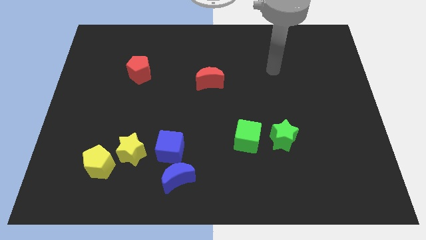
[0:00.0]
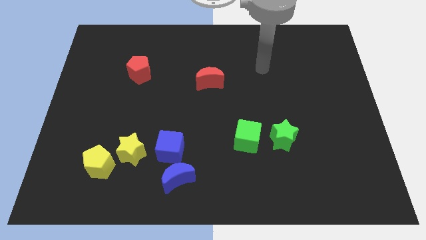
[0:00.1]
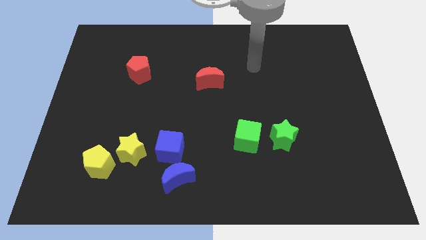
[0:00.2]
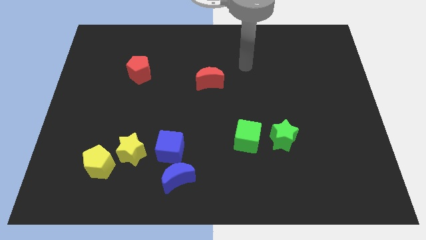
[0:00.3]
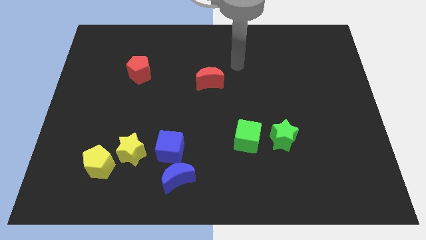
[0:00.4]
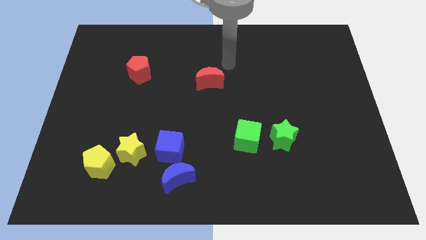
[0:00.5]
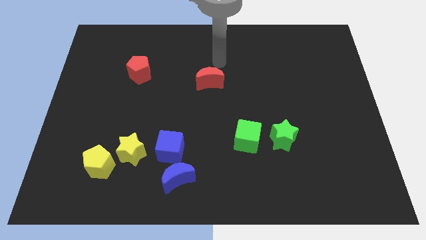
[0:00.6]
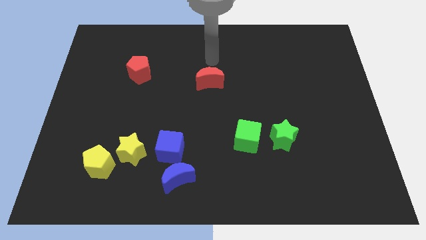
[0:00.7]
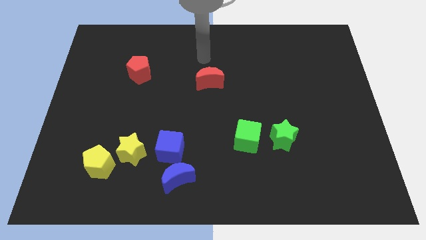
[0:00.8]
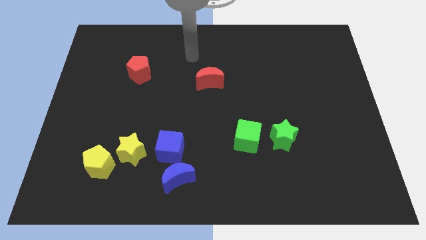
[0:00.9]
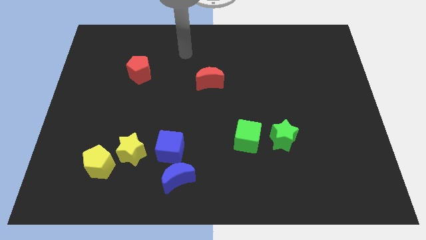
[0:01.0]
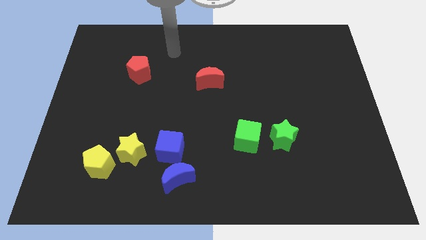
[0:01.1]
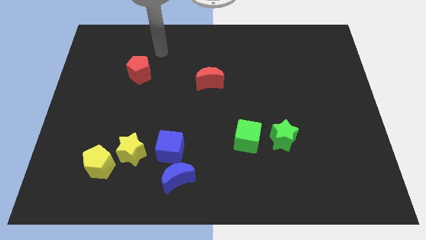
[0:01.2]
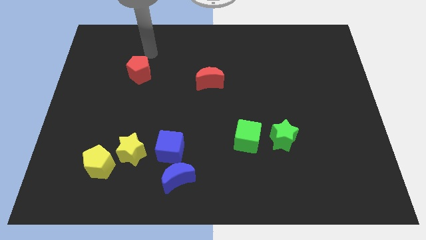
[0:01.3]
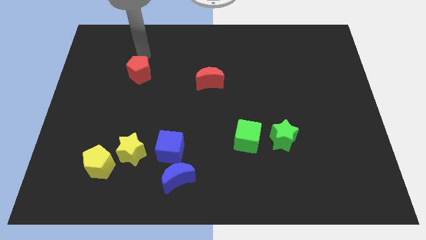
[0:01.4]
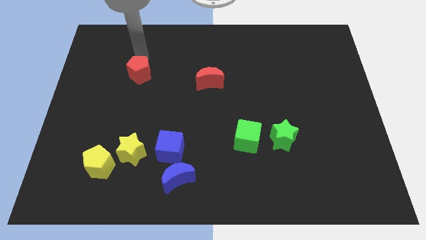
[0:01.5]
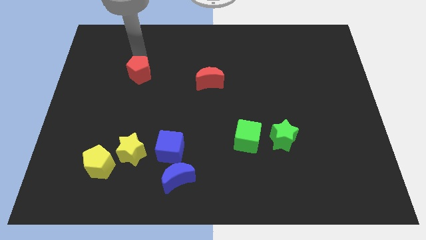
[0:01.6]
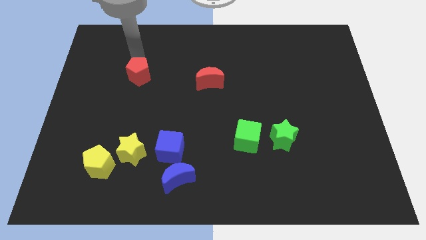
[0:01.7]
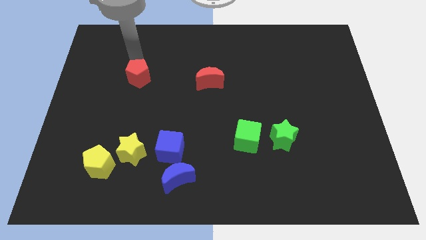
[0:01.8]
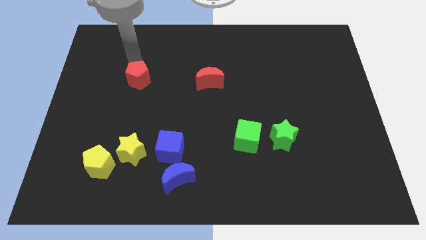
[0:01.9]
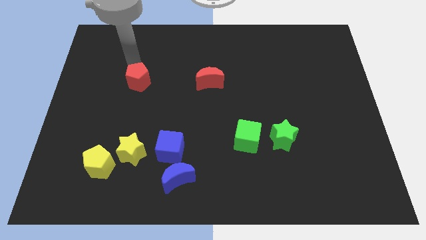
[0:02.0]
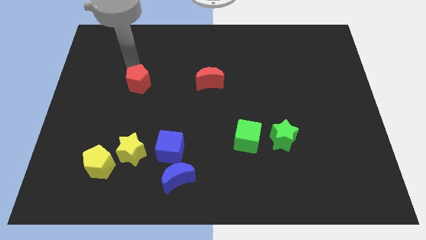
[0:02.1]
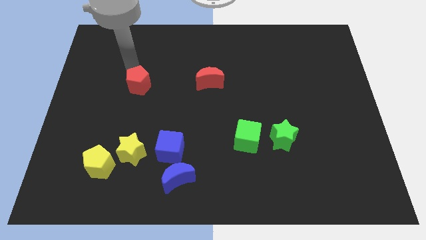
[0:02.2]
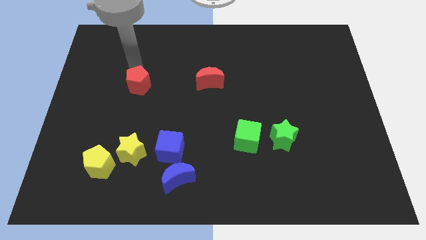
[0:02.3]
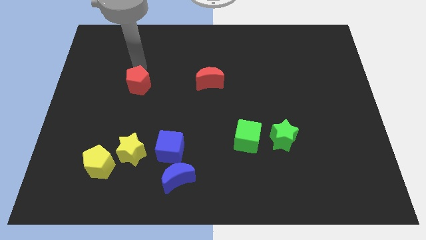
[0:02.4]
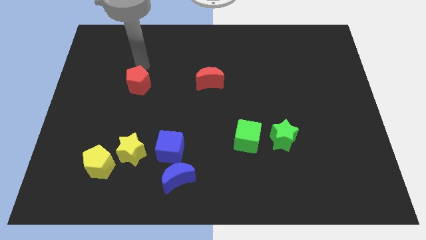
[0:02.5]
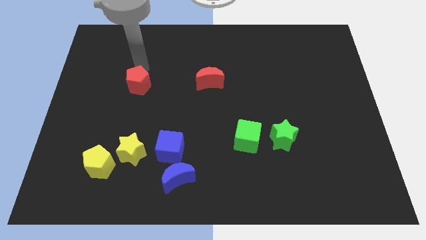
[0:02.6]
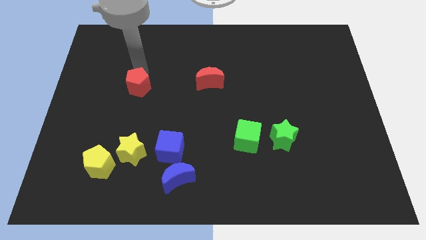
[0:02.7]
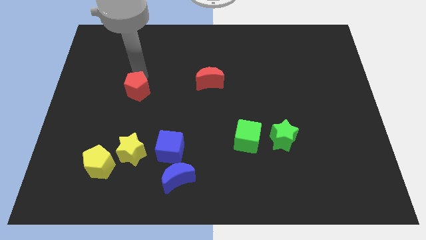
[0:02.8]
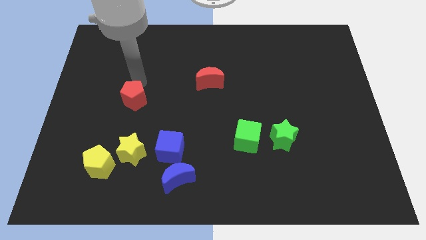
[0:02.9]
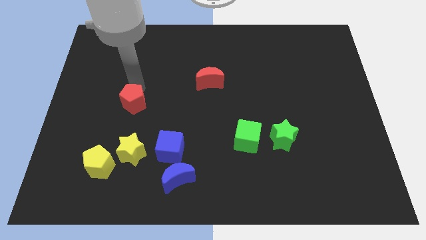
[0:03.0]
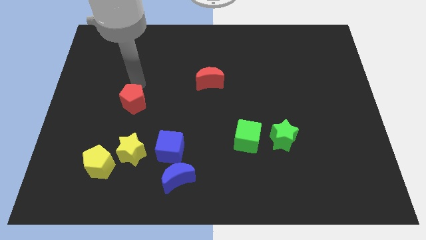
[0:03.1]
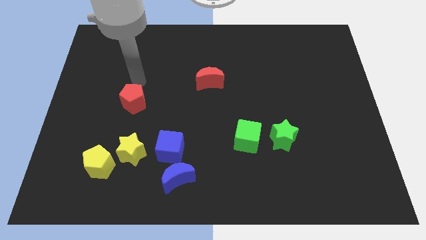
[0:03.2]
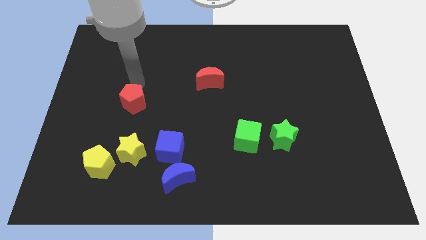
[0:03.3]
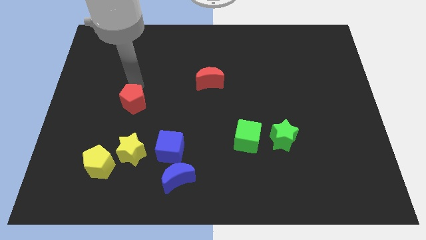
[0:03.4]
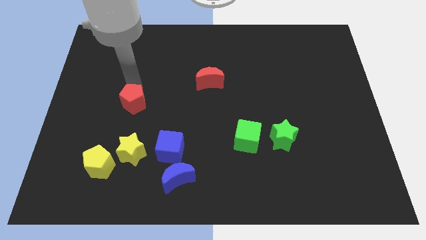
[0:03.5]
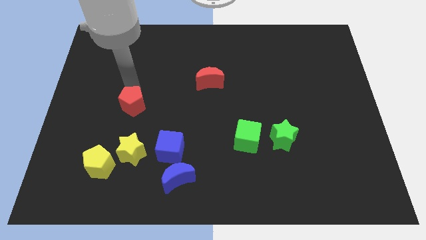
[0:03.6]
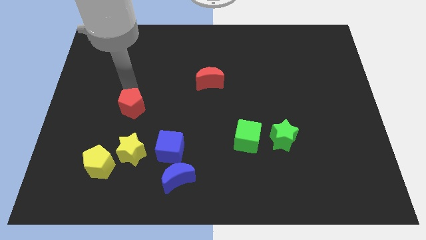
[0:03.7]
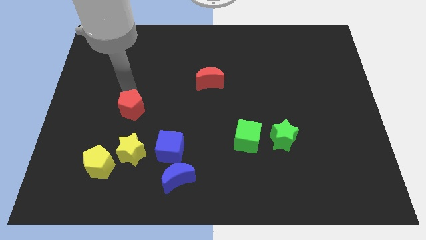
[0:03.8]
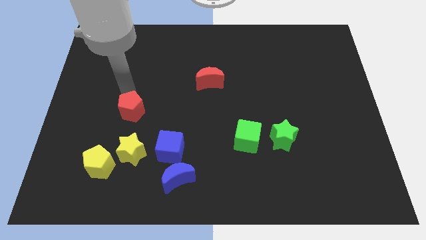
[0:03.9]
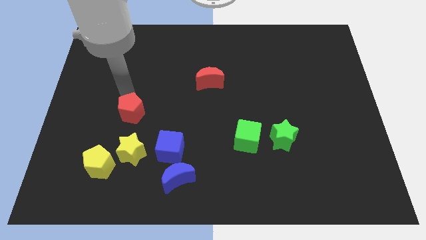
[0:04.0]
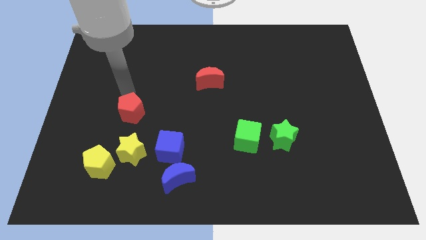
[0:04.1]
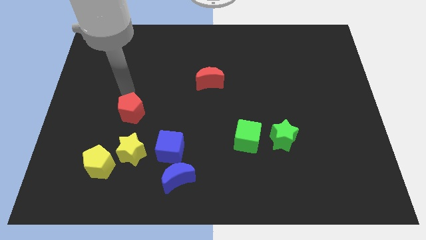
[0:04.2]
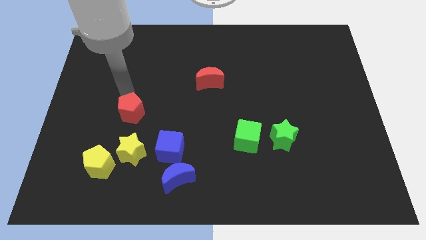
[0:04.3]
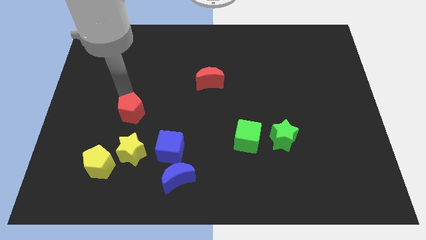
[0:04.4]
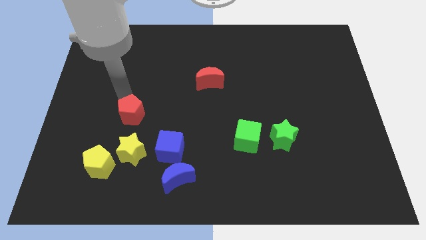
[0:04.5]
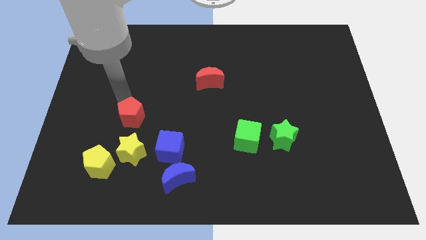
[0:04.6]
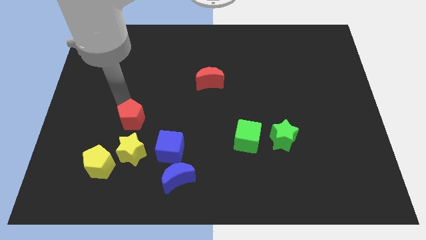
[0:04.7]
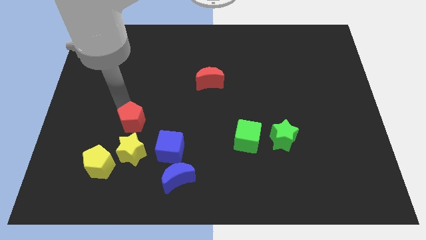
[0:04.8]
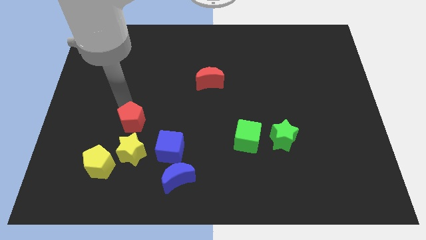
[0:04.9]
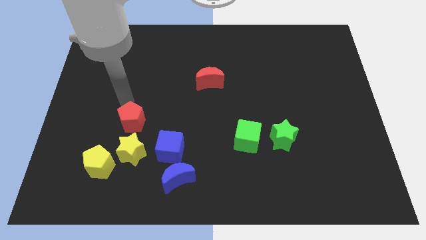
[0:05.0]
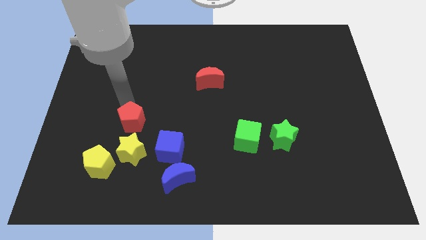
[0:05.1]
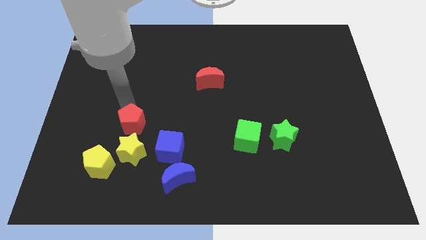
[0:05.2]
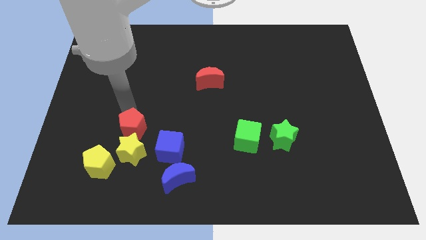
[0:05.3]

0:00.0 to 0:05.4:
push the red pentagon to the yellow star

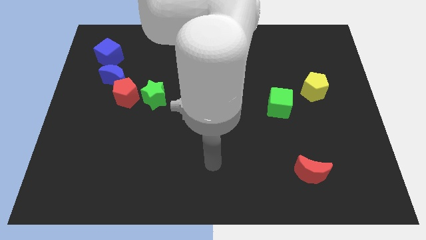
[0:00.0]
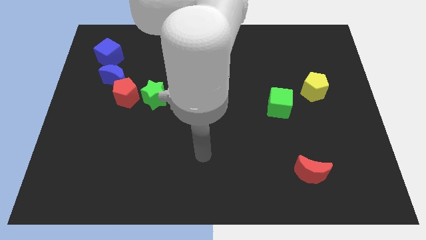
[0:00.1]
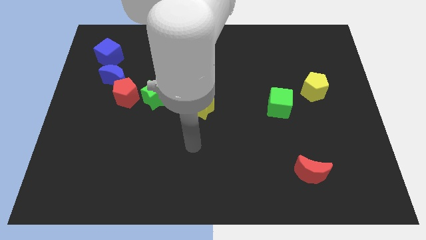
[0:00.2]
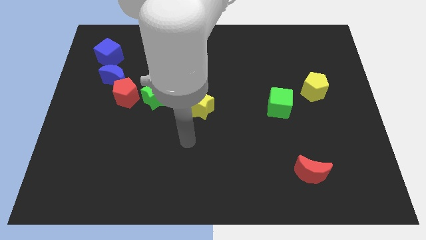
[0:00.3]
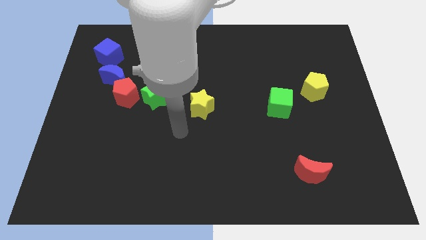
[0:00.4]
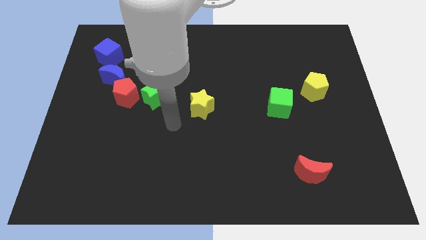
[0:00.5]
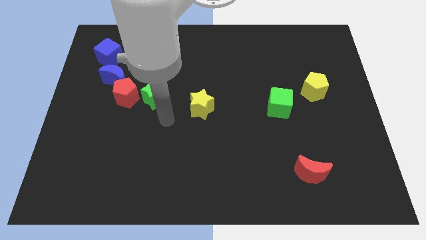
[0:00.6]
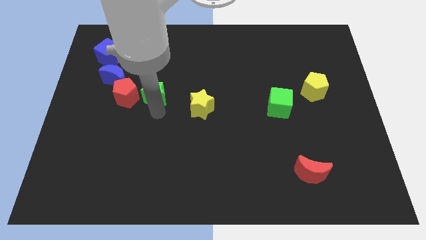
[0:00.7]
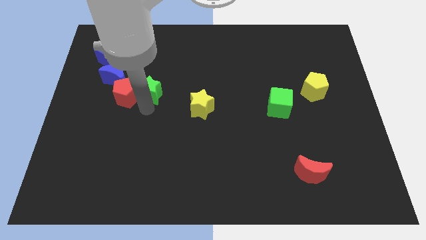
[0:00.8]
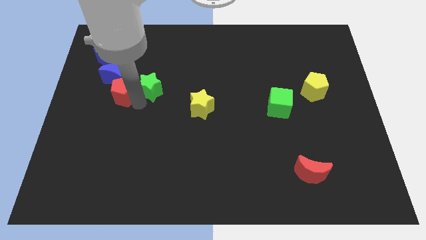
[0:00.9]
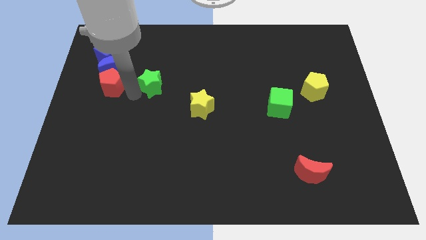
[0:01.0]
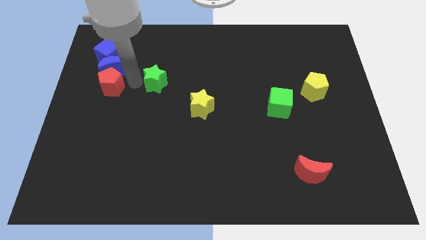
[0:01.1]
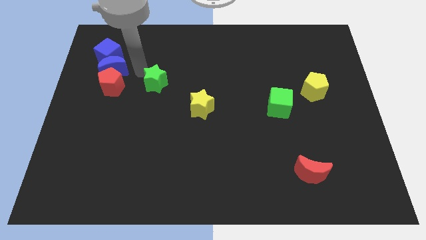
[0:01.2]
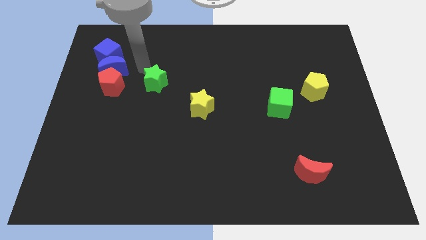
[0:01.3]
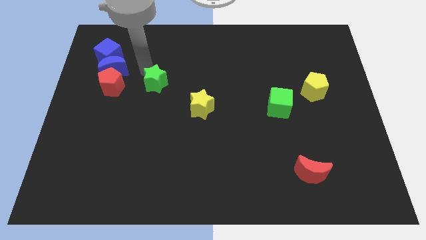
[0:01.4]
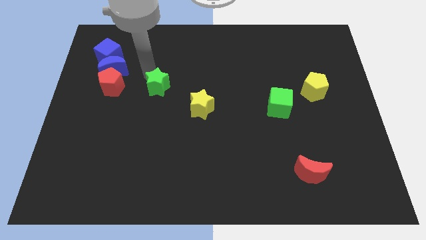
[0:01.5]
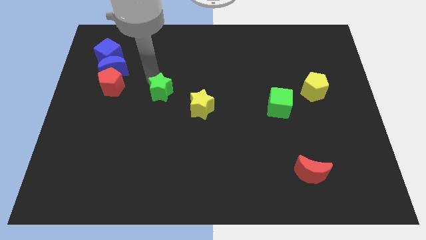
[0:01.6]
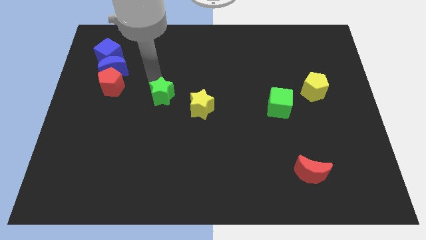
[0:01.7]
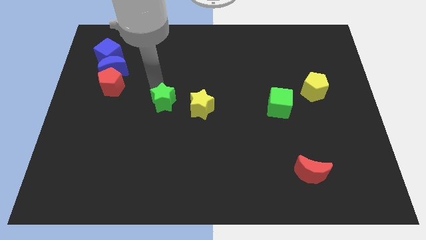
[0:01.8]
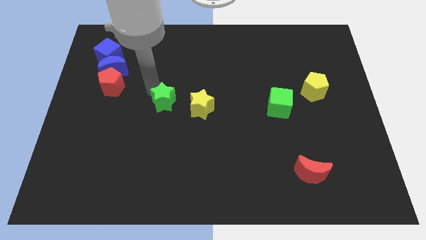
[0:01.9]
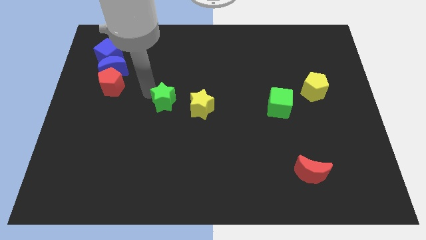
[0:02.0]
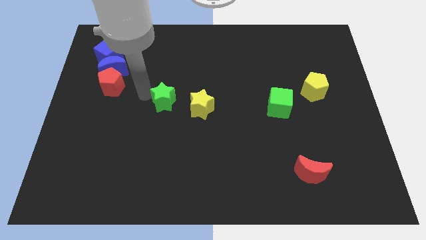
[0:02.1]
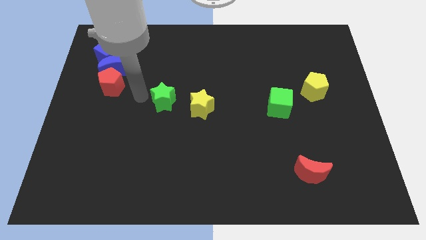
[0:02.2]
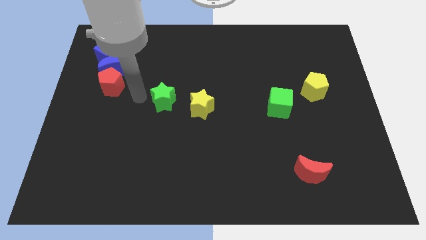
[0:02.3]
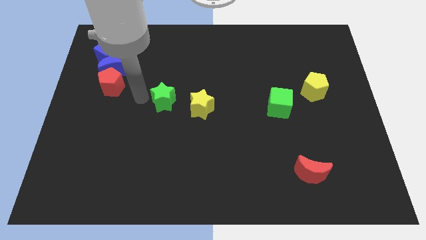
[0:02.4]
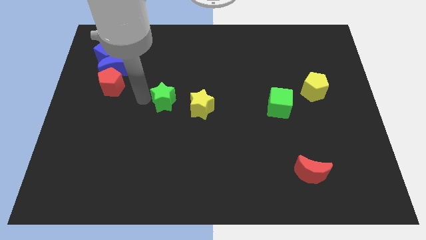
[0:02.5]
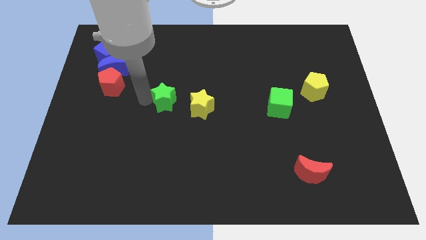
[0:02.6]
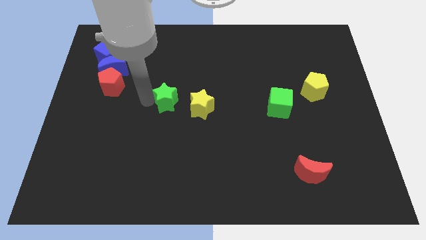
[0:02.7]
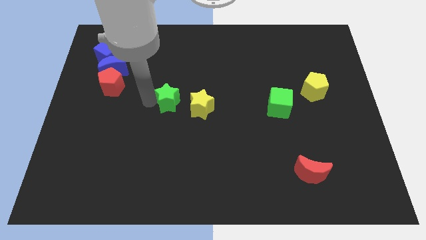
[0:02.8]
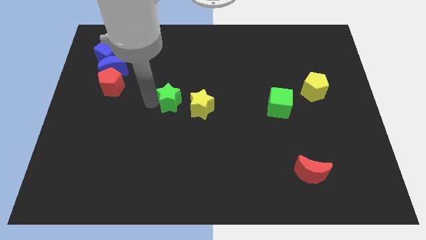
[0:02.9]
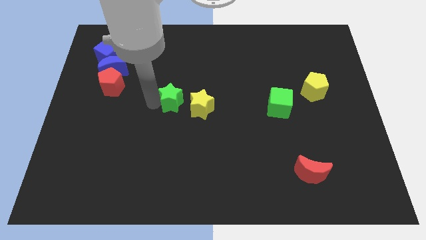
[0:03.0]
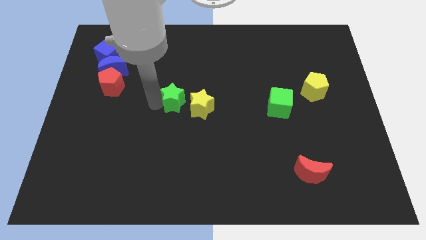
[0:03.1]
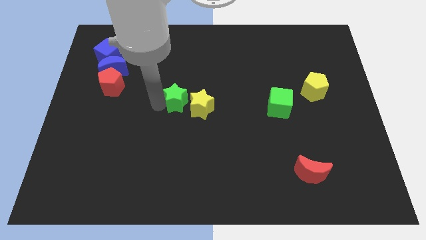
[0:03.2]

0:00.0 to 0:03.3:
put the green star close to the yellow star
